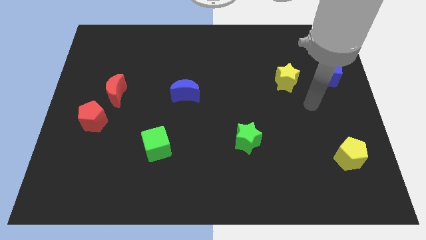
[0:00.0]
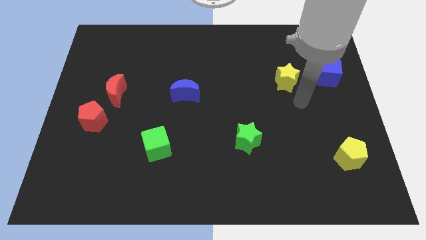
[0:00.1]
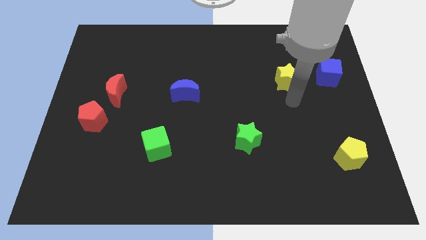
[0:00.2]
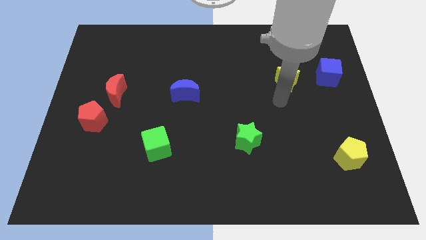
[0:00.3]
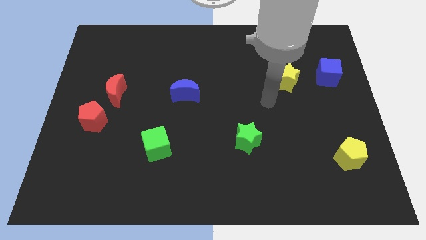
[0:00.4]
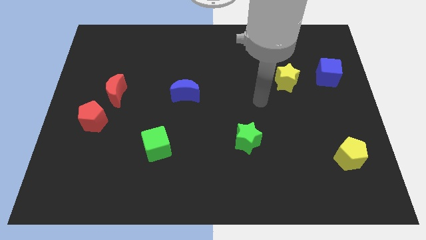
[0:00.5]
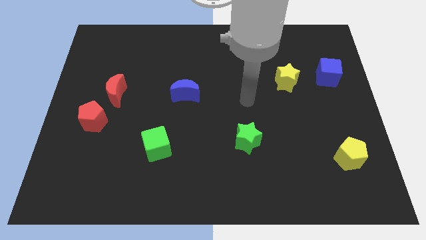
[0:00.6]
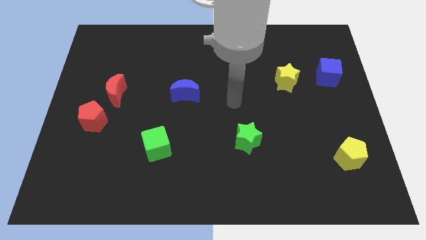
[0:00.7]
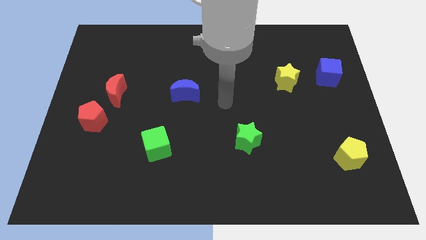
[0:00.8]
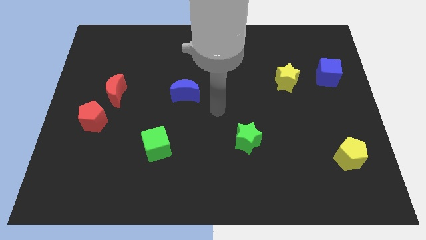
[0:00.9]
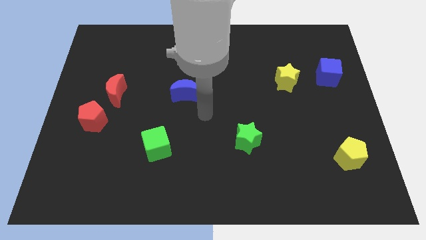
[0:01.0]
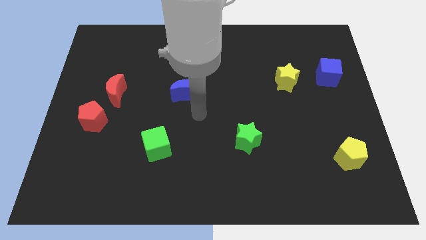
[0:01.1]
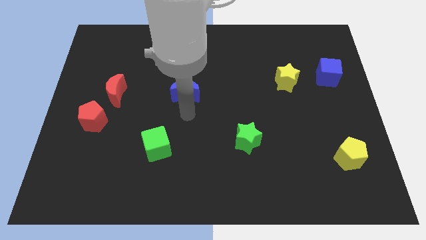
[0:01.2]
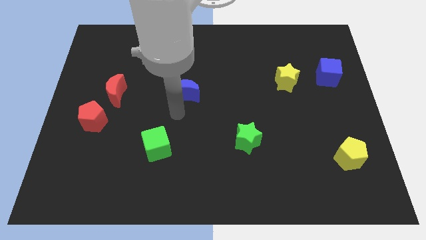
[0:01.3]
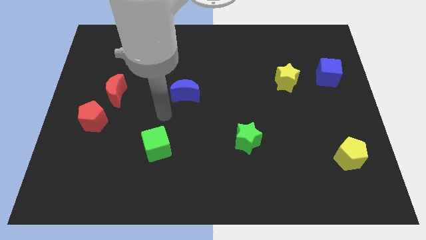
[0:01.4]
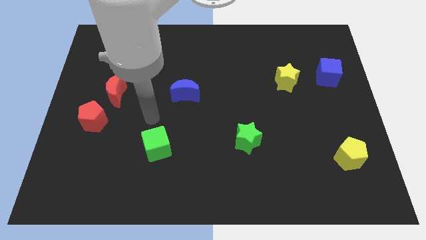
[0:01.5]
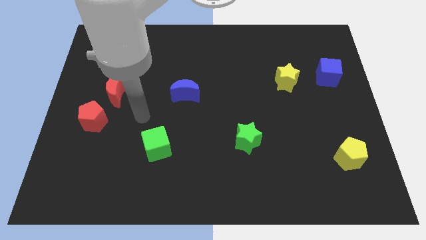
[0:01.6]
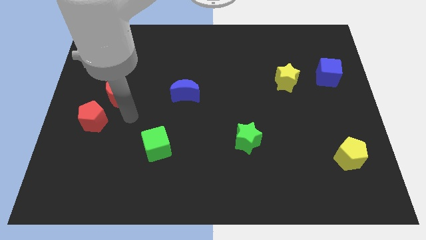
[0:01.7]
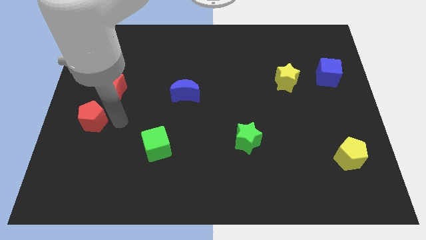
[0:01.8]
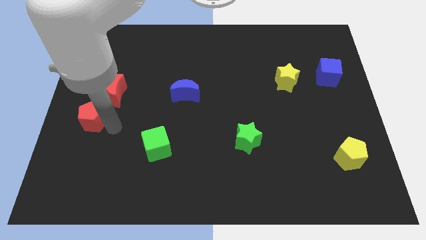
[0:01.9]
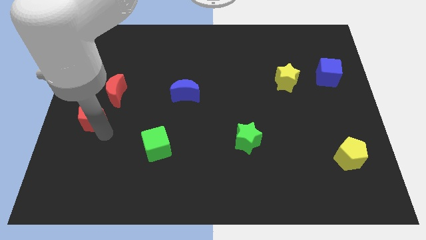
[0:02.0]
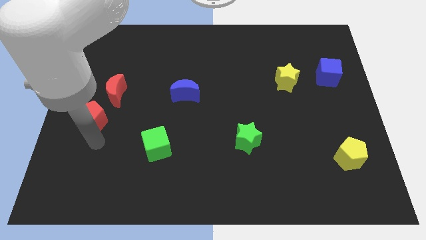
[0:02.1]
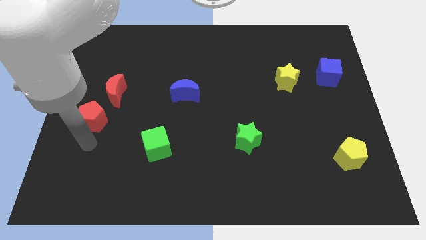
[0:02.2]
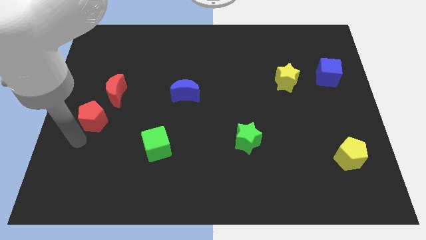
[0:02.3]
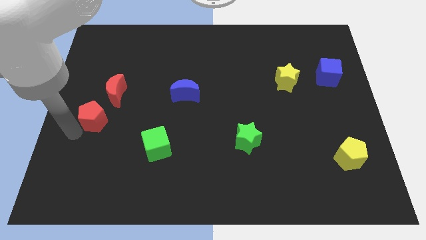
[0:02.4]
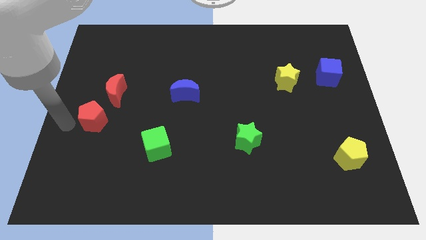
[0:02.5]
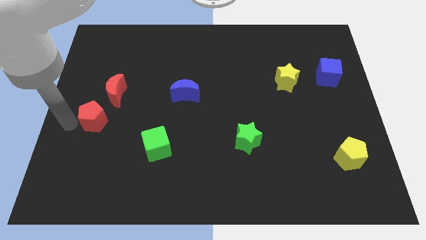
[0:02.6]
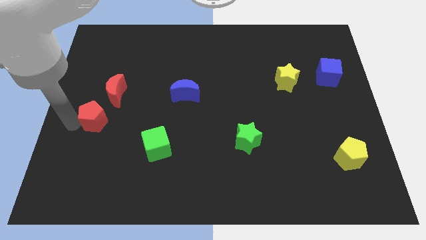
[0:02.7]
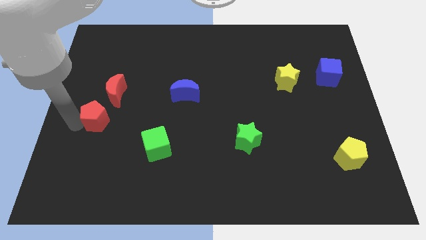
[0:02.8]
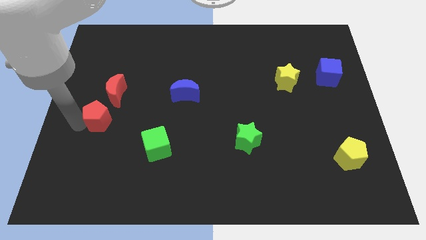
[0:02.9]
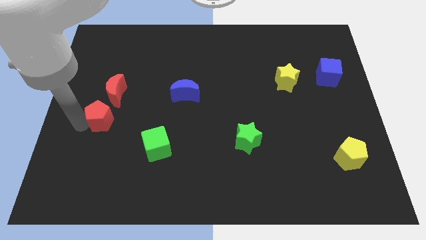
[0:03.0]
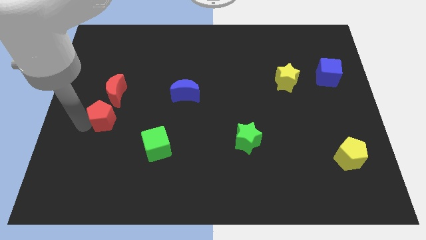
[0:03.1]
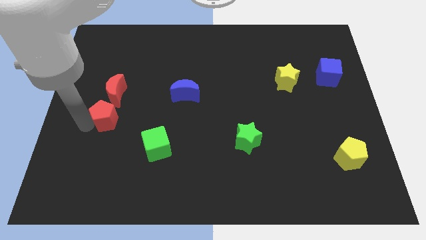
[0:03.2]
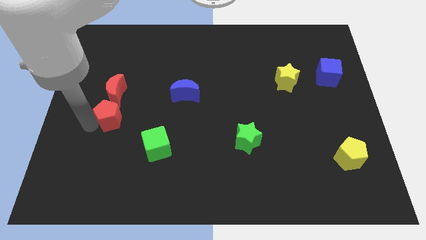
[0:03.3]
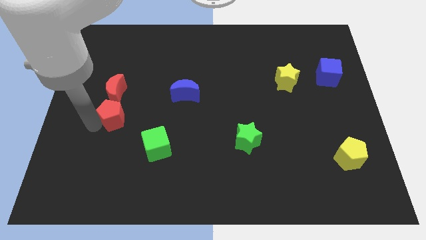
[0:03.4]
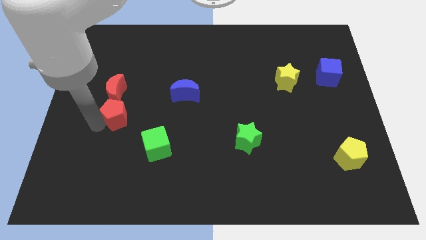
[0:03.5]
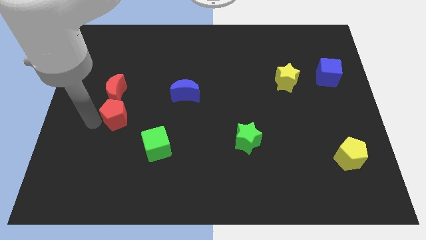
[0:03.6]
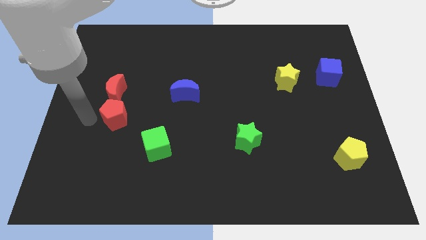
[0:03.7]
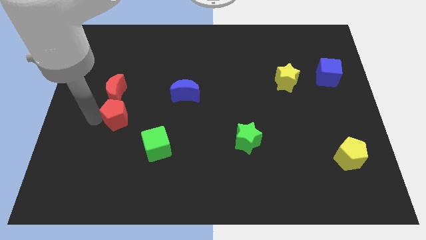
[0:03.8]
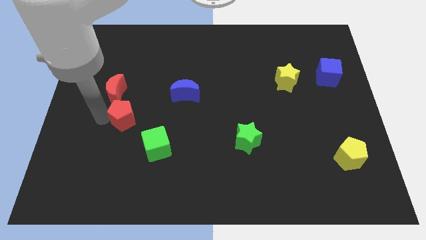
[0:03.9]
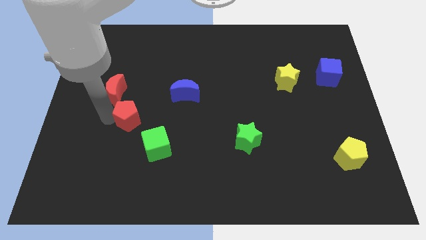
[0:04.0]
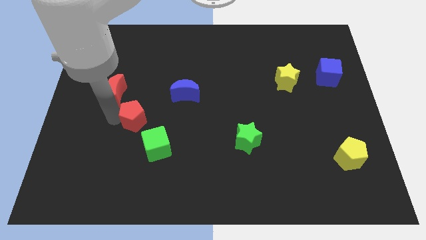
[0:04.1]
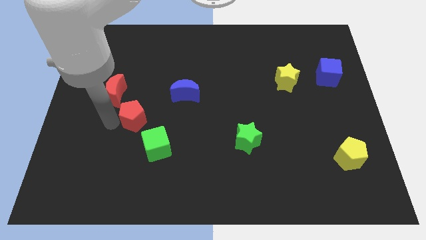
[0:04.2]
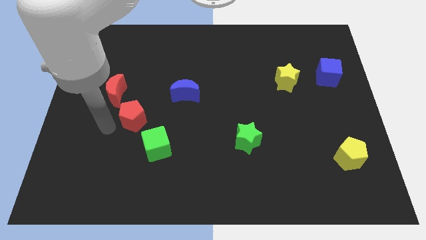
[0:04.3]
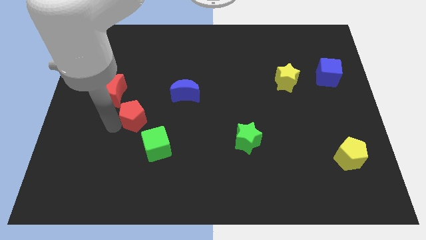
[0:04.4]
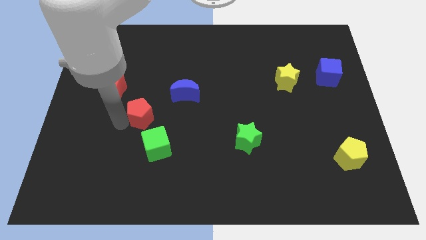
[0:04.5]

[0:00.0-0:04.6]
put the red pentagon to the top side of the green cube

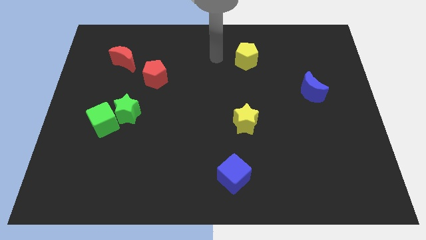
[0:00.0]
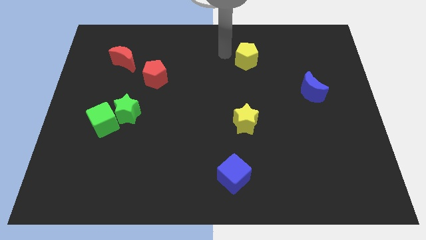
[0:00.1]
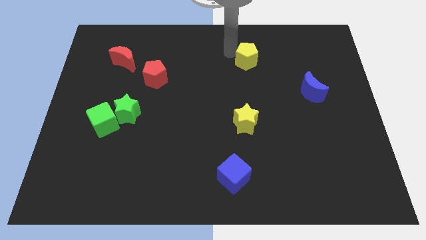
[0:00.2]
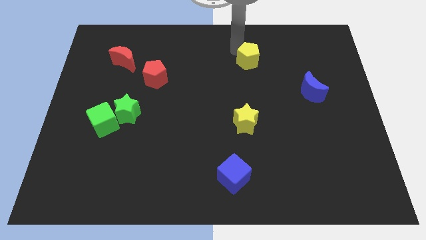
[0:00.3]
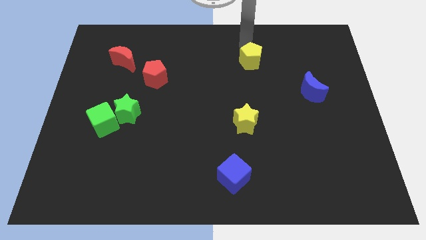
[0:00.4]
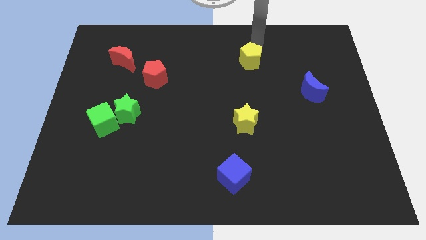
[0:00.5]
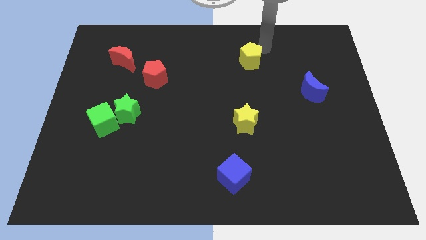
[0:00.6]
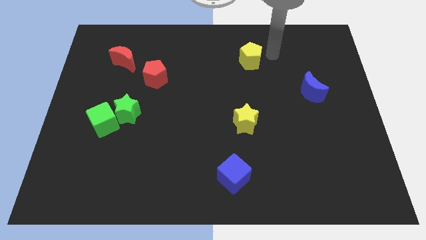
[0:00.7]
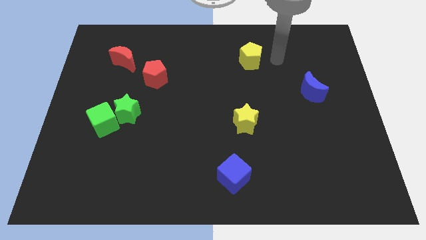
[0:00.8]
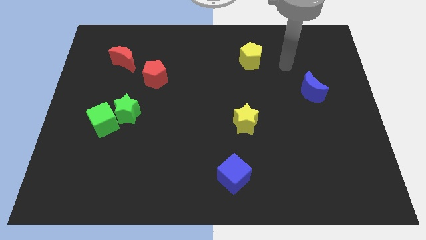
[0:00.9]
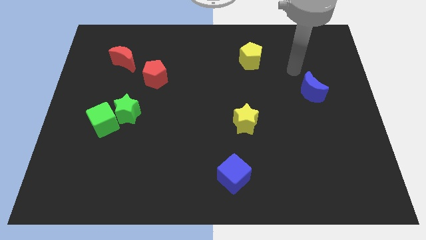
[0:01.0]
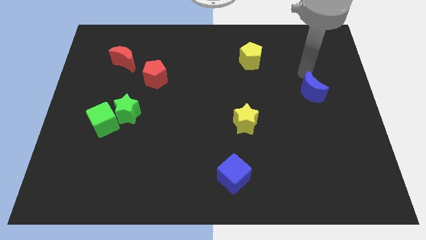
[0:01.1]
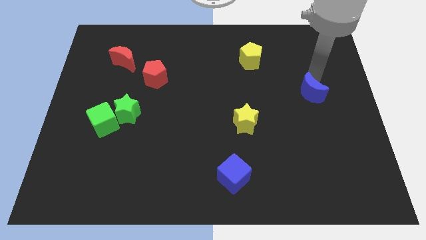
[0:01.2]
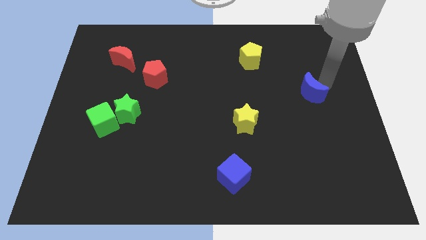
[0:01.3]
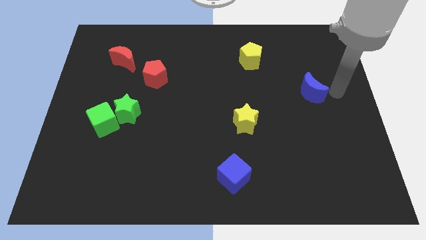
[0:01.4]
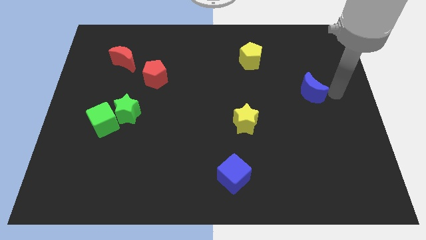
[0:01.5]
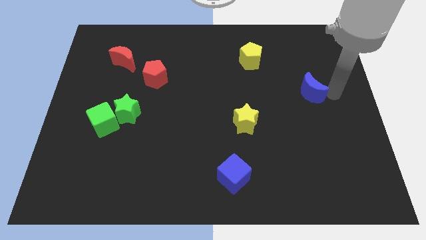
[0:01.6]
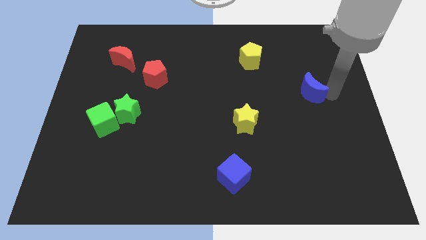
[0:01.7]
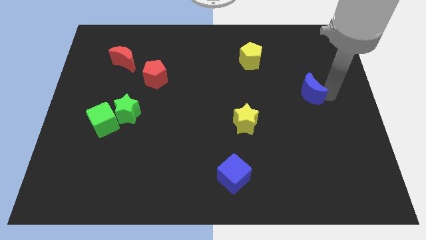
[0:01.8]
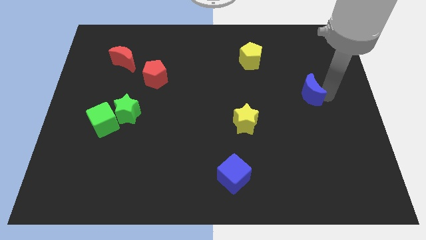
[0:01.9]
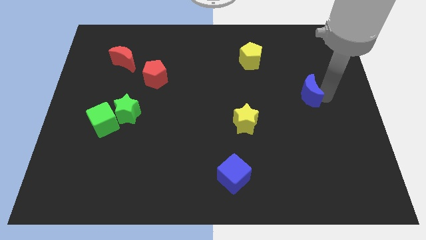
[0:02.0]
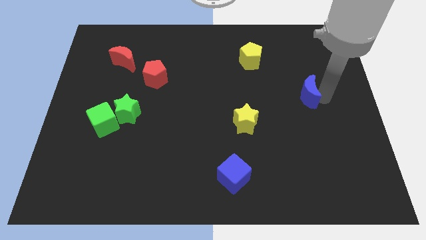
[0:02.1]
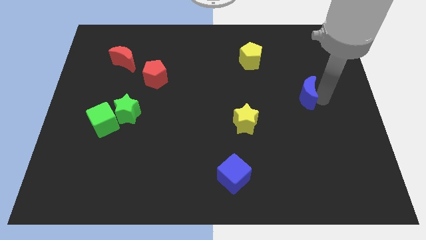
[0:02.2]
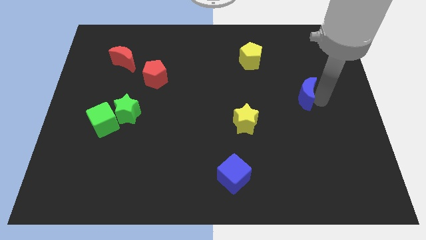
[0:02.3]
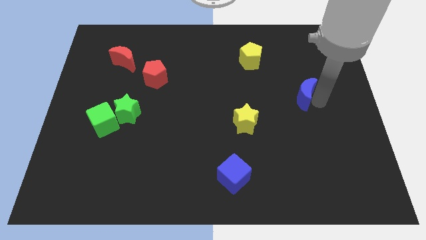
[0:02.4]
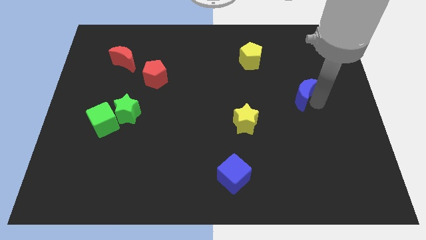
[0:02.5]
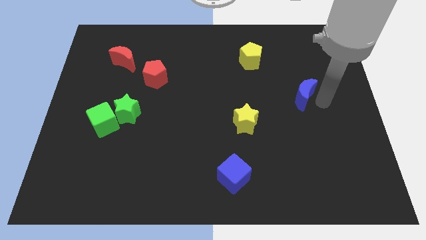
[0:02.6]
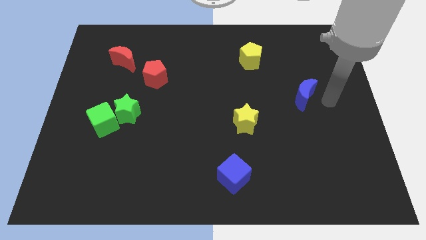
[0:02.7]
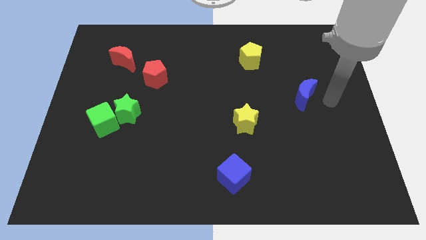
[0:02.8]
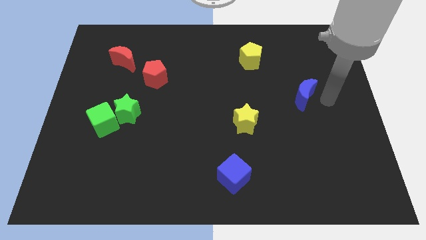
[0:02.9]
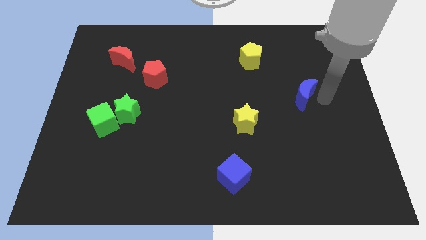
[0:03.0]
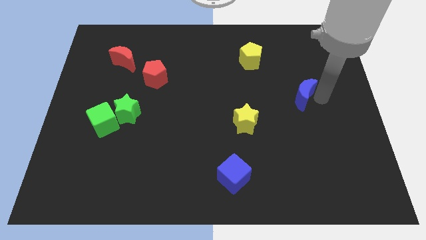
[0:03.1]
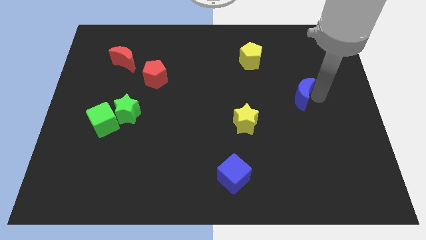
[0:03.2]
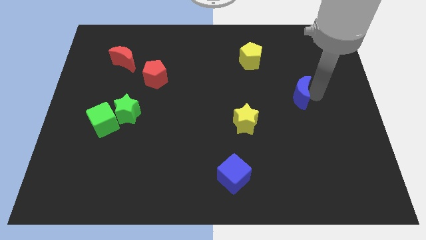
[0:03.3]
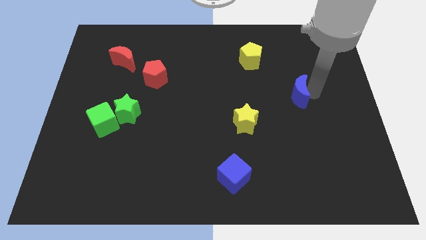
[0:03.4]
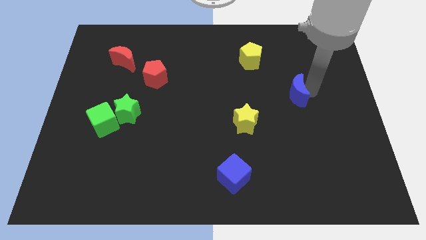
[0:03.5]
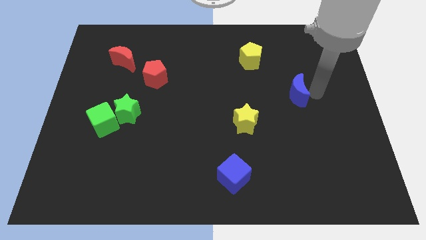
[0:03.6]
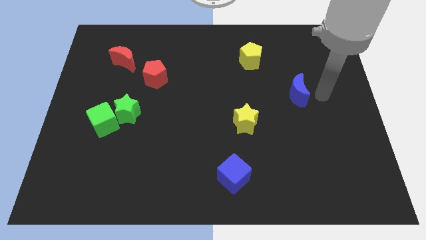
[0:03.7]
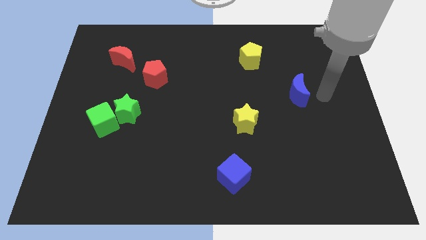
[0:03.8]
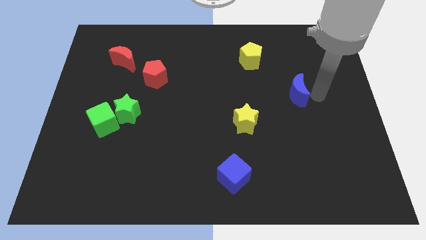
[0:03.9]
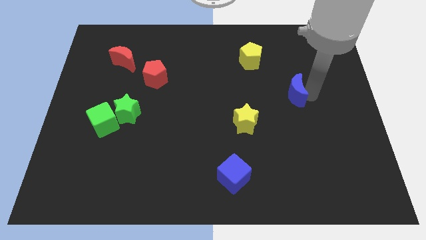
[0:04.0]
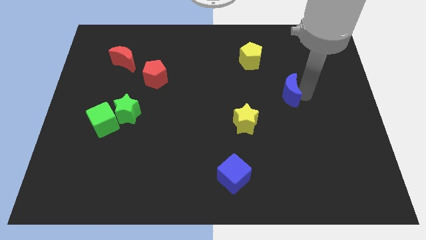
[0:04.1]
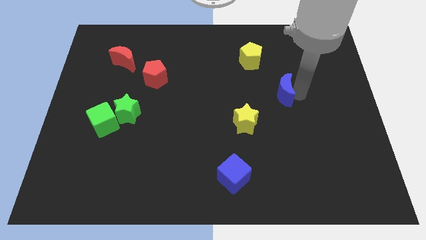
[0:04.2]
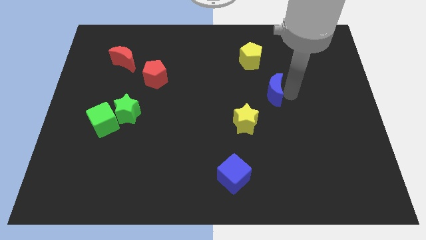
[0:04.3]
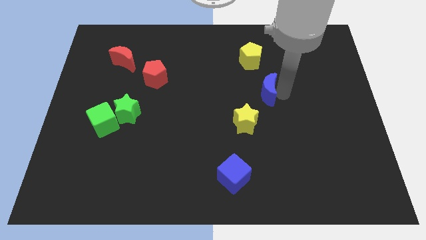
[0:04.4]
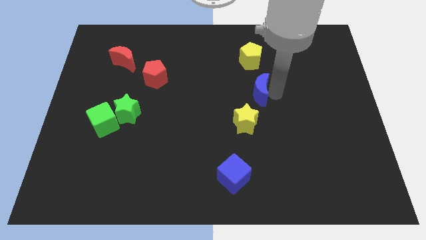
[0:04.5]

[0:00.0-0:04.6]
slide the blue moon to the top of the yellow star
